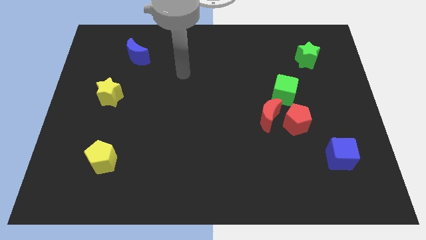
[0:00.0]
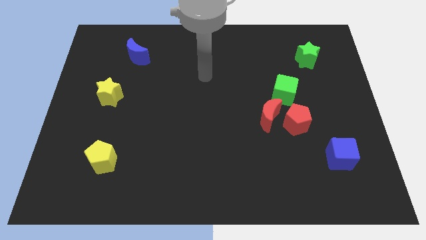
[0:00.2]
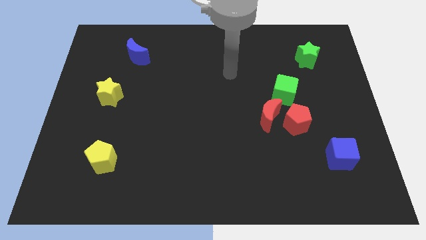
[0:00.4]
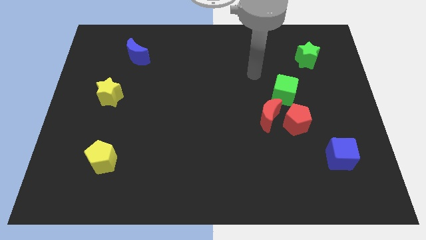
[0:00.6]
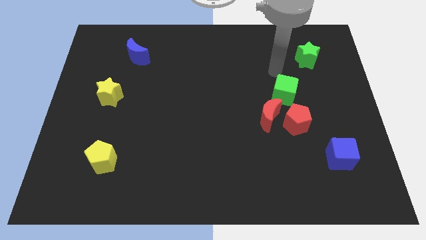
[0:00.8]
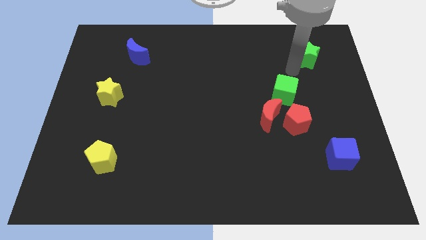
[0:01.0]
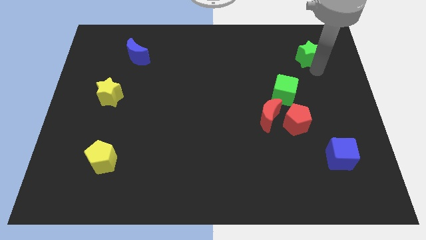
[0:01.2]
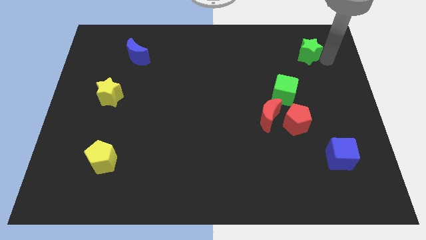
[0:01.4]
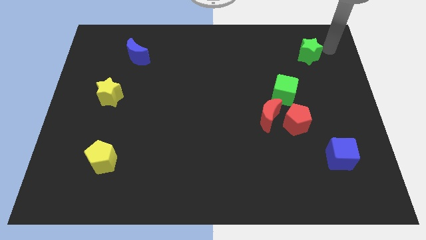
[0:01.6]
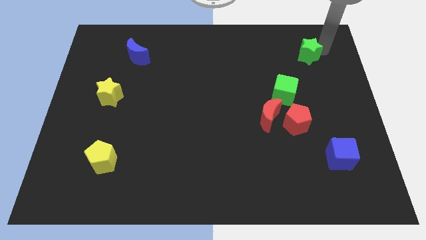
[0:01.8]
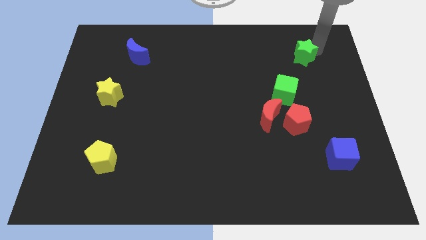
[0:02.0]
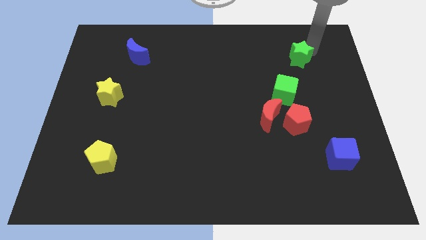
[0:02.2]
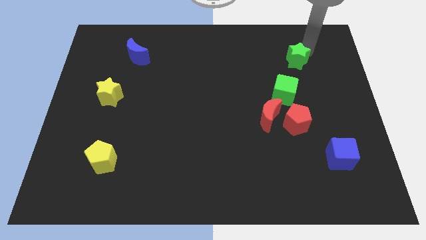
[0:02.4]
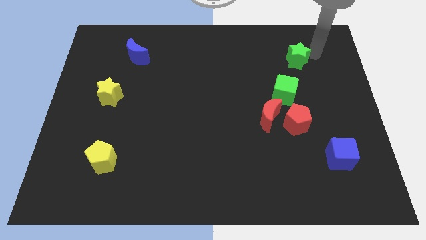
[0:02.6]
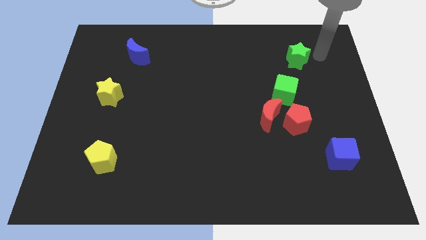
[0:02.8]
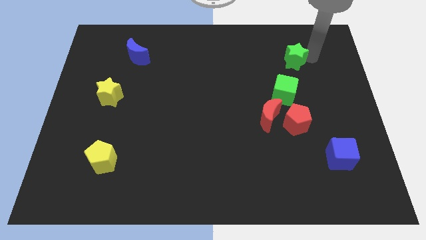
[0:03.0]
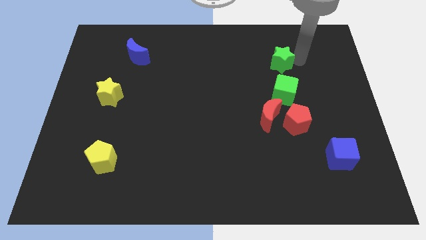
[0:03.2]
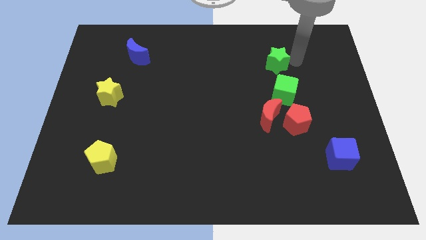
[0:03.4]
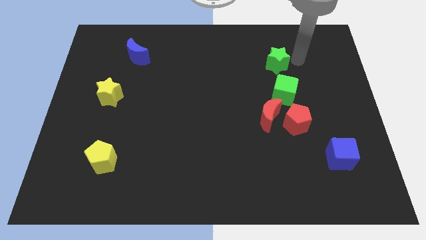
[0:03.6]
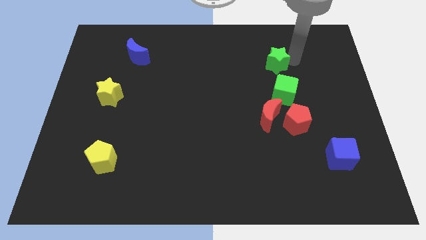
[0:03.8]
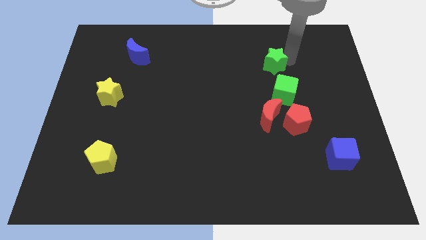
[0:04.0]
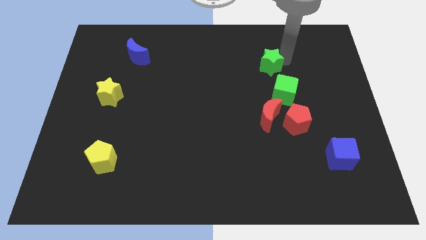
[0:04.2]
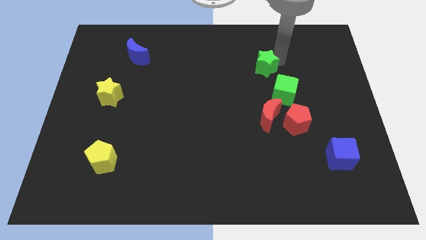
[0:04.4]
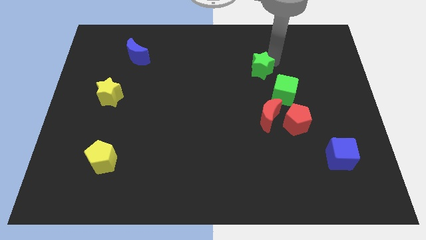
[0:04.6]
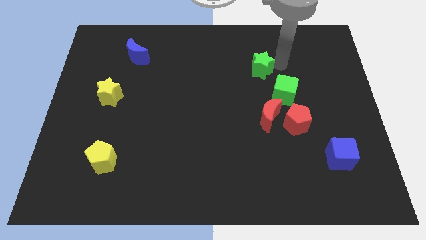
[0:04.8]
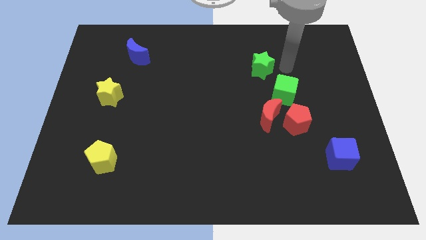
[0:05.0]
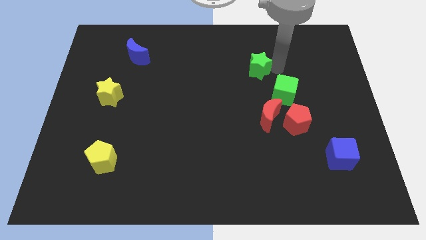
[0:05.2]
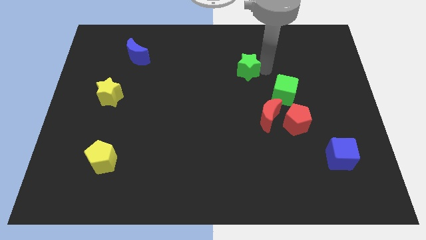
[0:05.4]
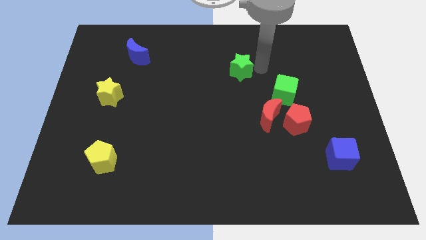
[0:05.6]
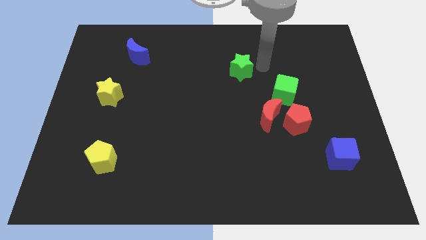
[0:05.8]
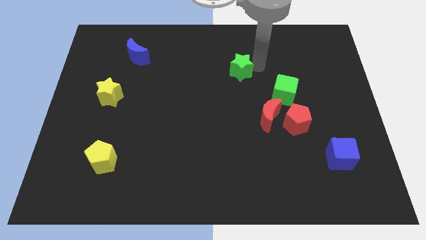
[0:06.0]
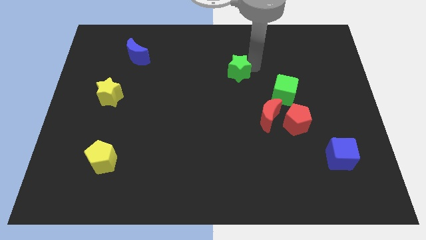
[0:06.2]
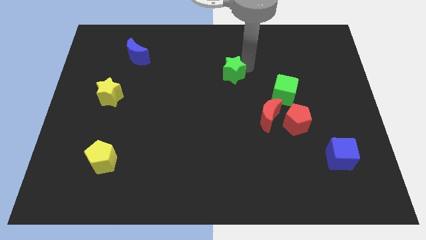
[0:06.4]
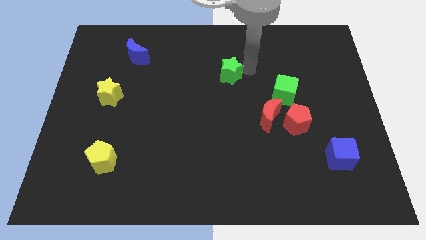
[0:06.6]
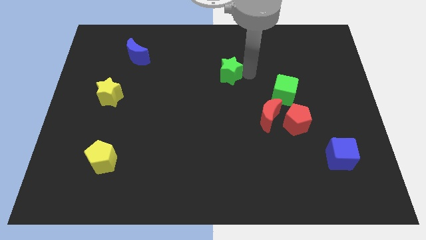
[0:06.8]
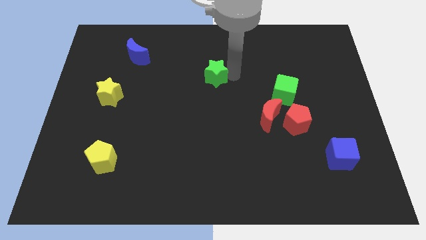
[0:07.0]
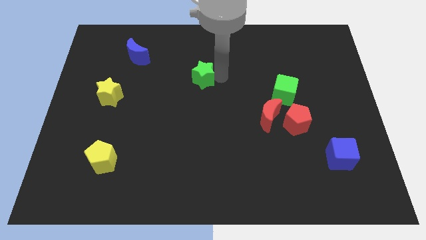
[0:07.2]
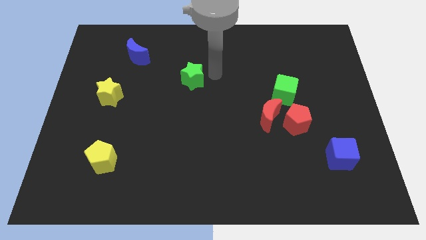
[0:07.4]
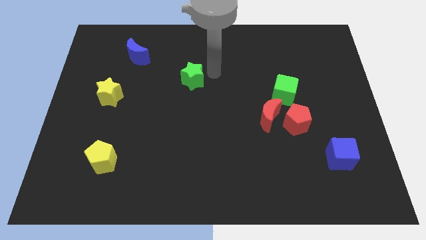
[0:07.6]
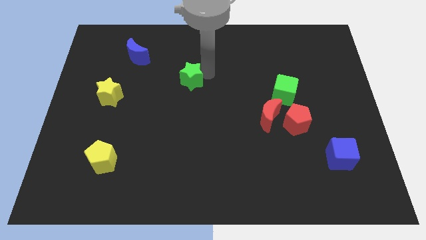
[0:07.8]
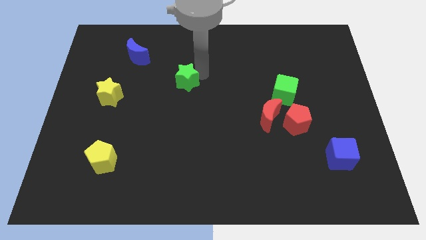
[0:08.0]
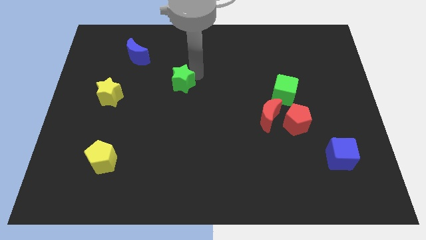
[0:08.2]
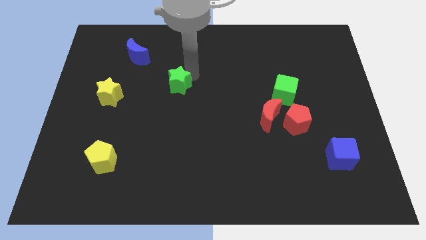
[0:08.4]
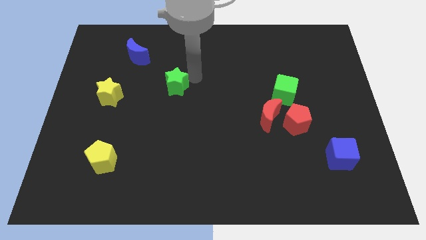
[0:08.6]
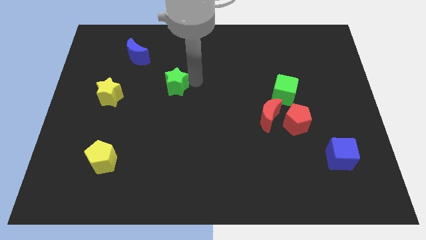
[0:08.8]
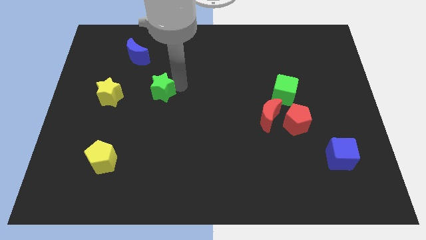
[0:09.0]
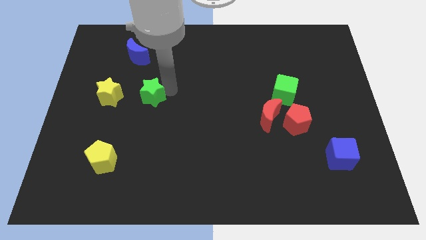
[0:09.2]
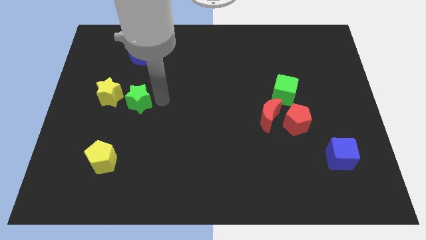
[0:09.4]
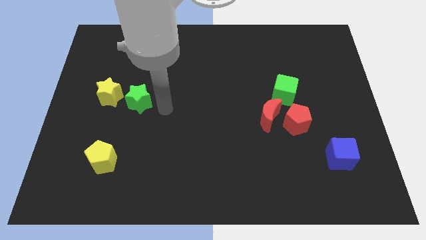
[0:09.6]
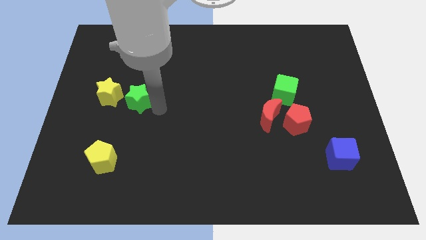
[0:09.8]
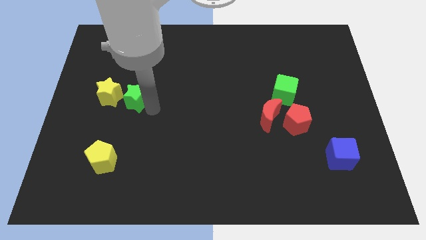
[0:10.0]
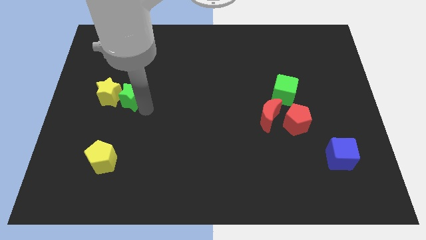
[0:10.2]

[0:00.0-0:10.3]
push the green star towards the yellow star

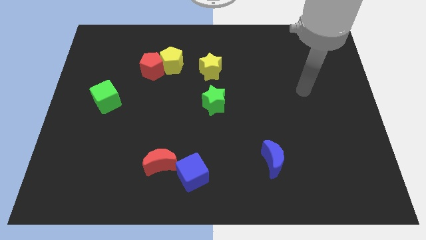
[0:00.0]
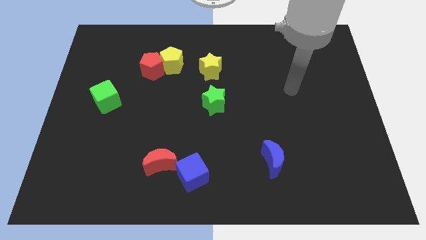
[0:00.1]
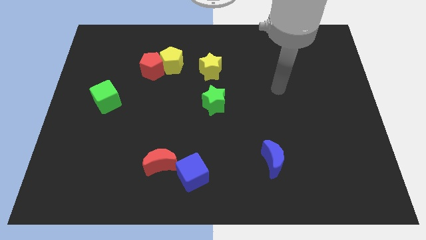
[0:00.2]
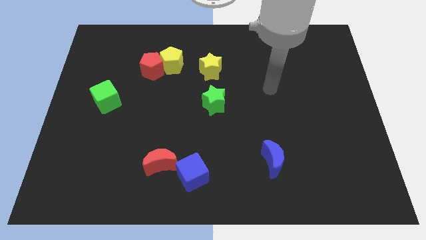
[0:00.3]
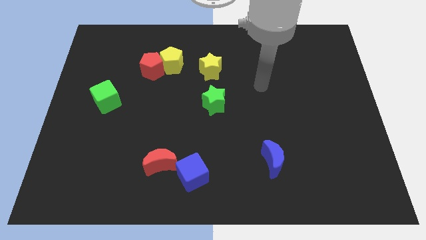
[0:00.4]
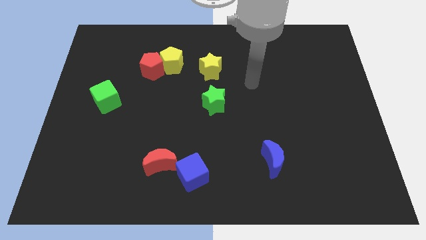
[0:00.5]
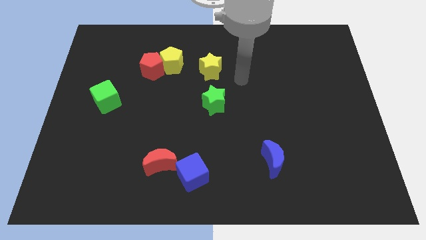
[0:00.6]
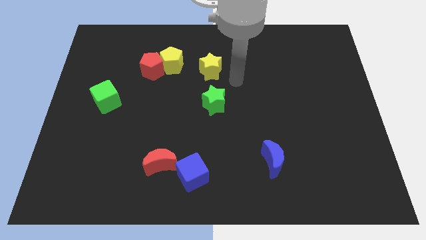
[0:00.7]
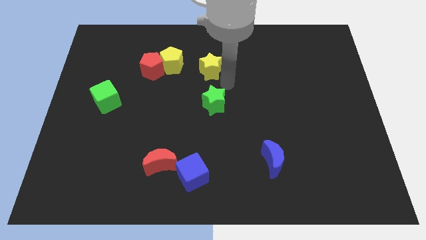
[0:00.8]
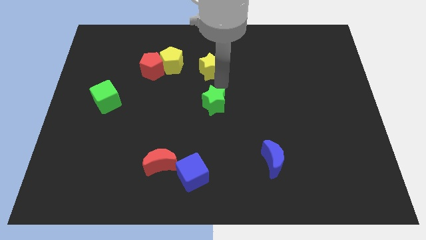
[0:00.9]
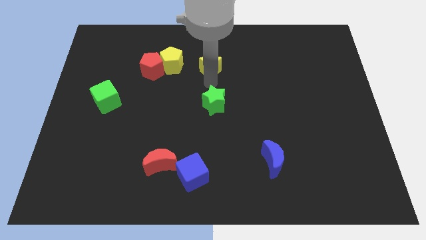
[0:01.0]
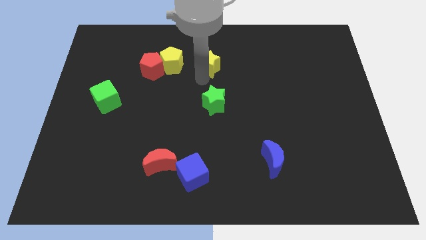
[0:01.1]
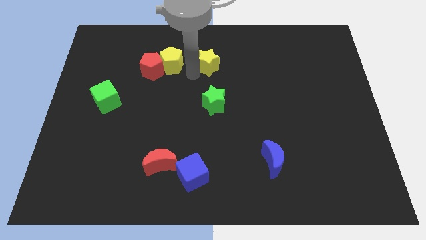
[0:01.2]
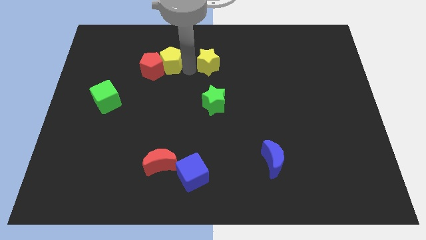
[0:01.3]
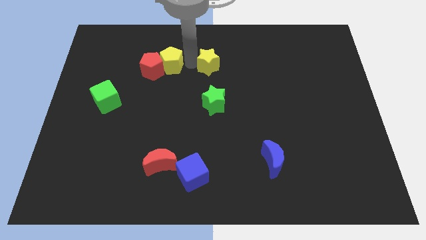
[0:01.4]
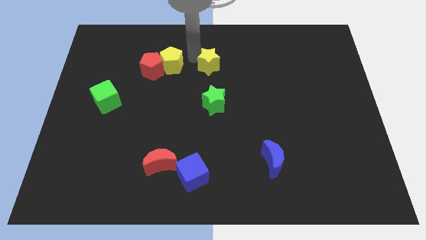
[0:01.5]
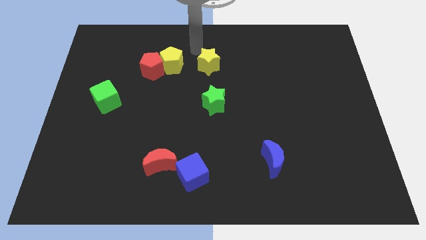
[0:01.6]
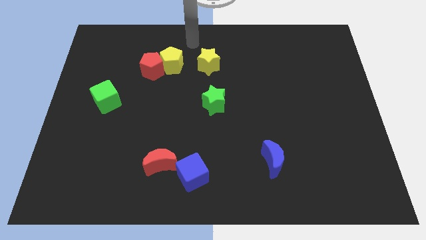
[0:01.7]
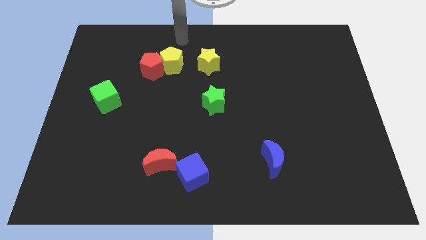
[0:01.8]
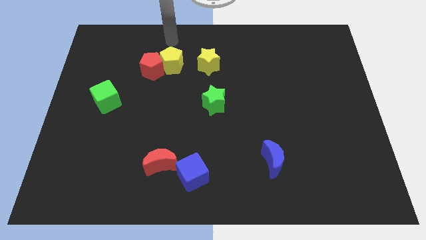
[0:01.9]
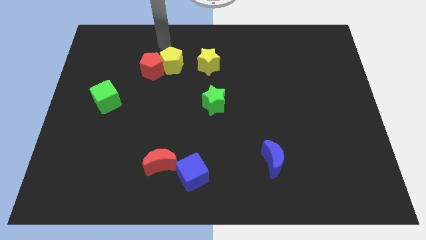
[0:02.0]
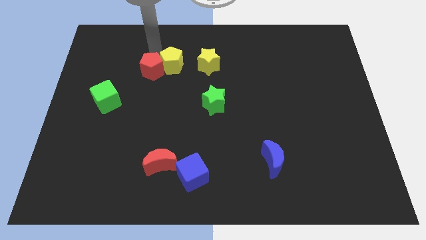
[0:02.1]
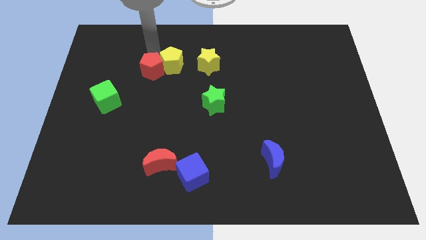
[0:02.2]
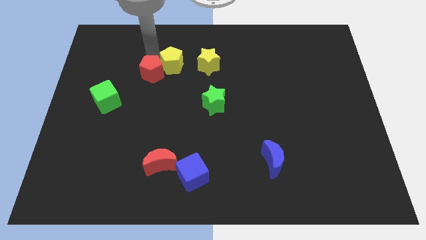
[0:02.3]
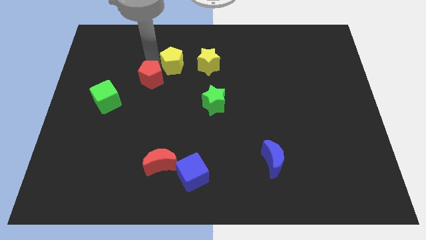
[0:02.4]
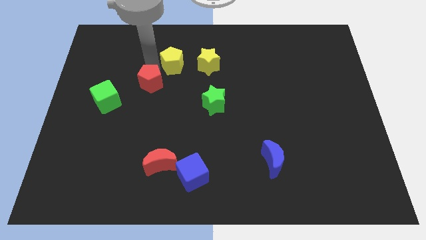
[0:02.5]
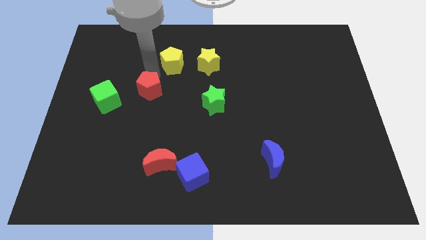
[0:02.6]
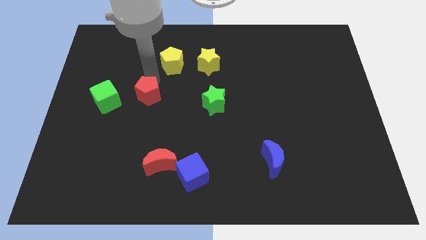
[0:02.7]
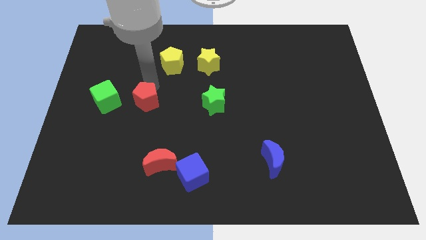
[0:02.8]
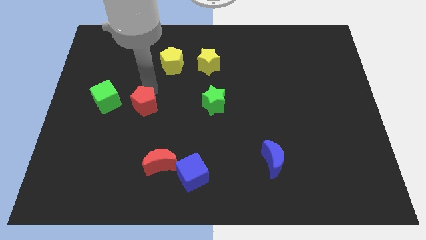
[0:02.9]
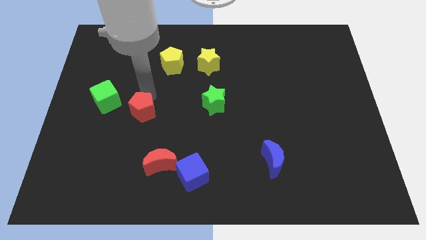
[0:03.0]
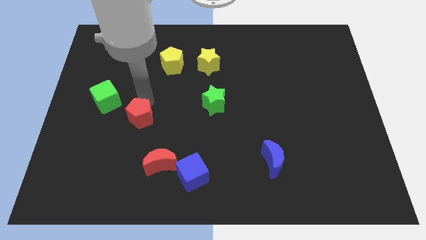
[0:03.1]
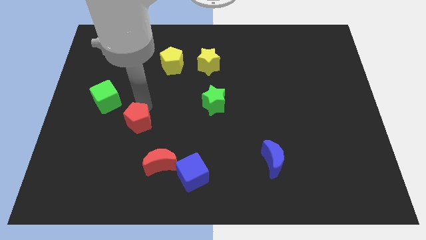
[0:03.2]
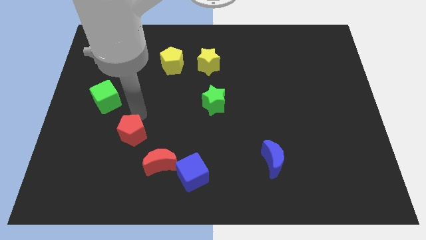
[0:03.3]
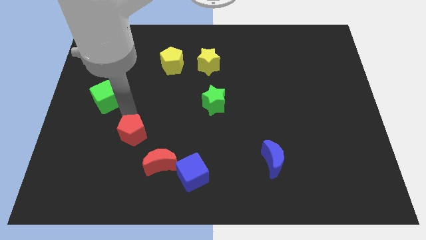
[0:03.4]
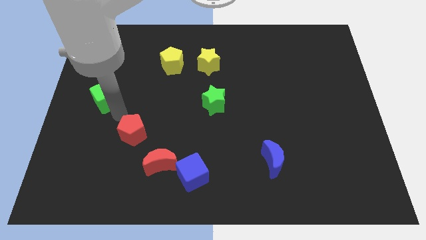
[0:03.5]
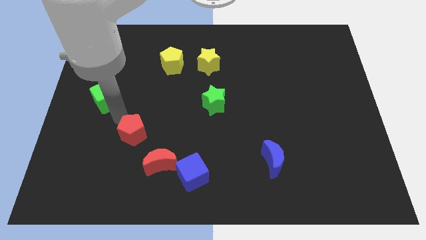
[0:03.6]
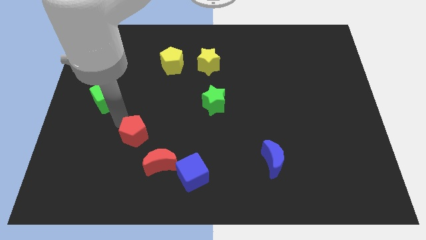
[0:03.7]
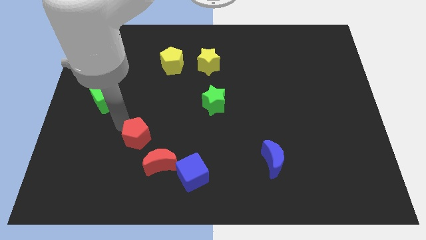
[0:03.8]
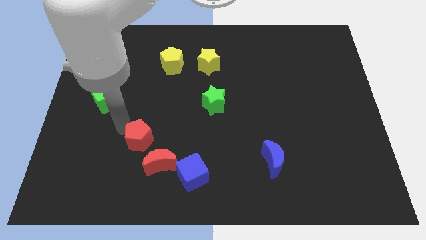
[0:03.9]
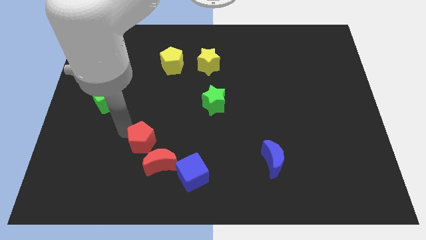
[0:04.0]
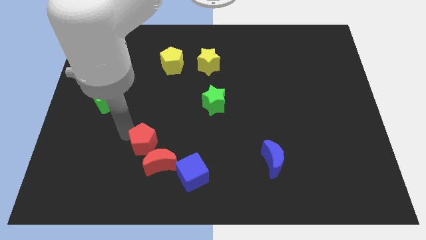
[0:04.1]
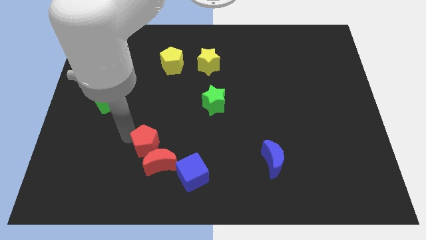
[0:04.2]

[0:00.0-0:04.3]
move the red pentagon to the red moon
